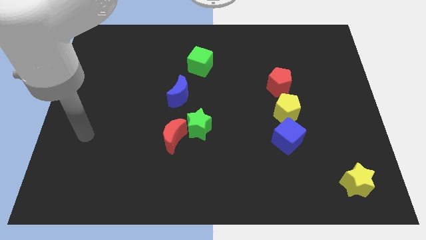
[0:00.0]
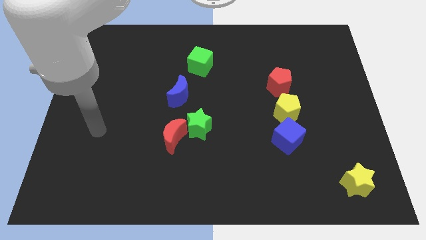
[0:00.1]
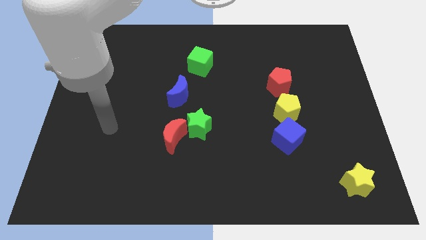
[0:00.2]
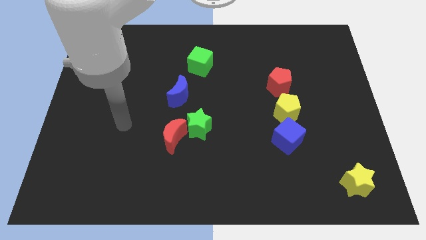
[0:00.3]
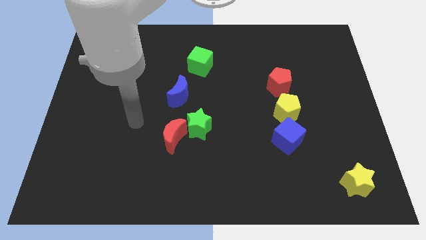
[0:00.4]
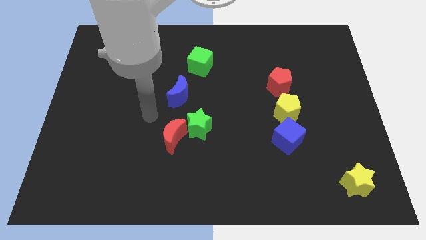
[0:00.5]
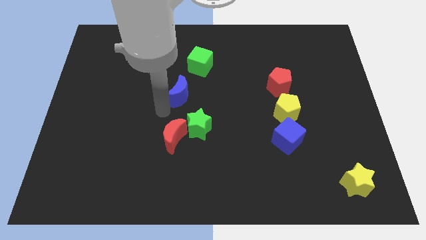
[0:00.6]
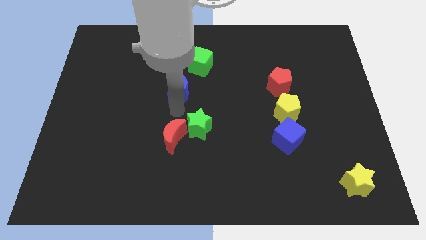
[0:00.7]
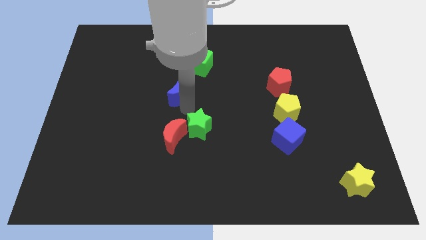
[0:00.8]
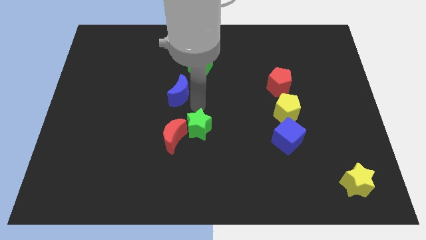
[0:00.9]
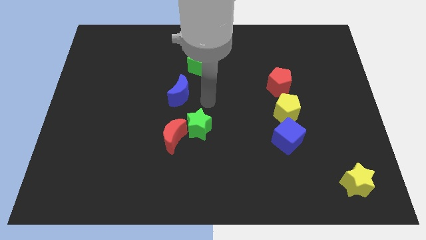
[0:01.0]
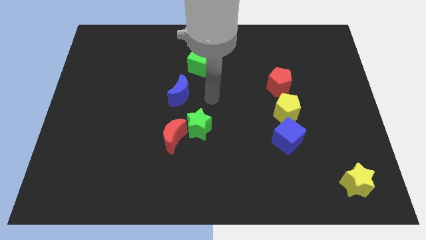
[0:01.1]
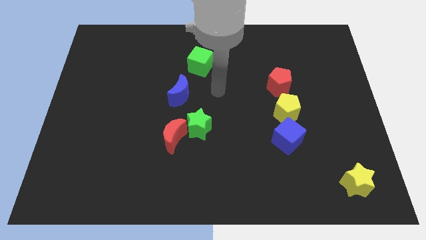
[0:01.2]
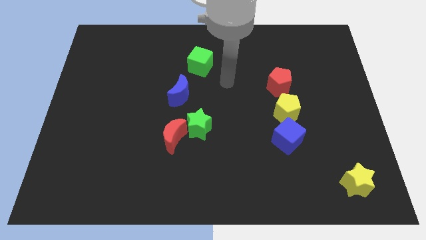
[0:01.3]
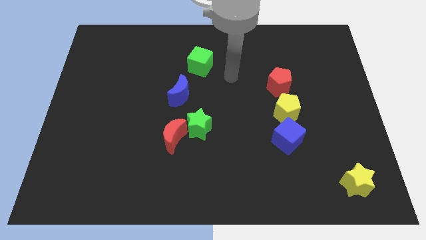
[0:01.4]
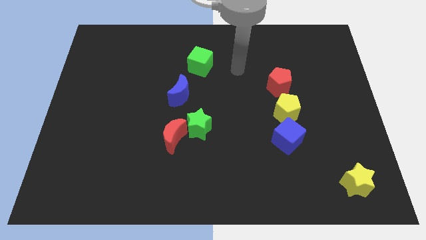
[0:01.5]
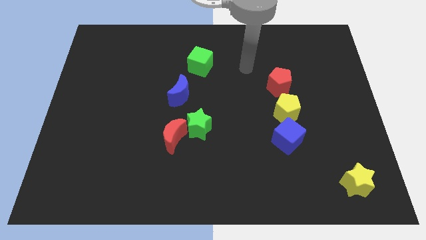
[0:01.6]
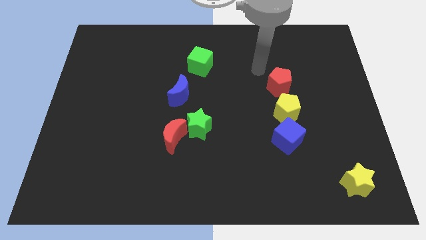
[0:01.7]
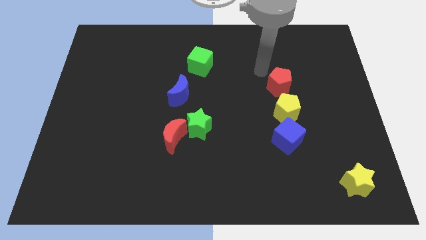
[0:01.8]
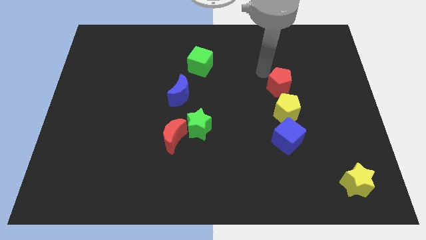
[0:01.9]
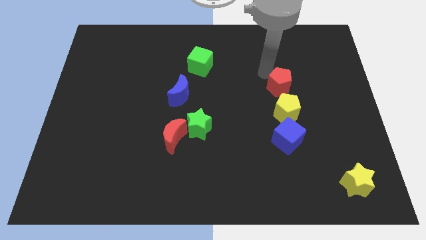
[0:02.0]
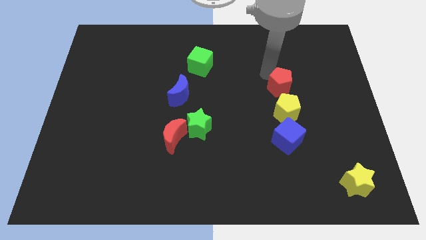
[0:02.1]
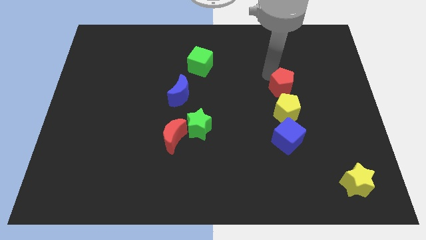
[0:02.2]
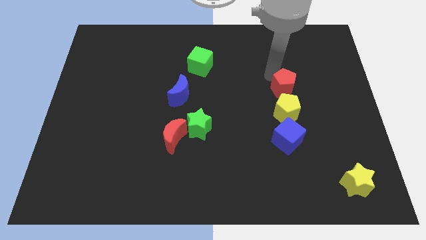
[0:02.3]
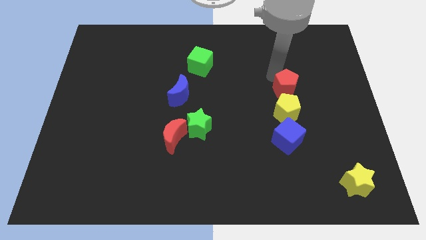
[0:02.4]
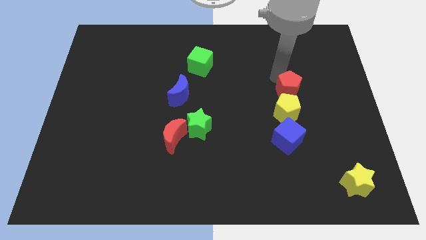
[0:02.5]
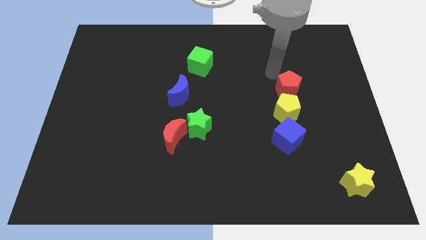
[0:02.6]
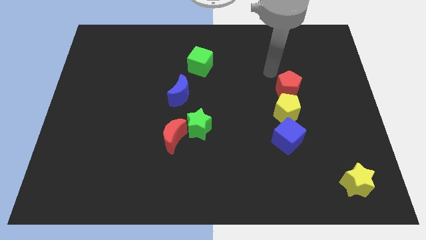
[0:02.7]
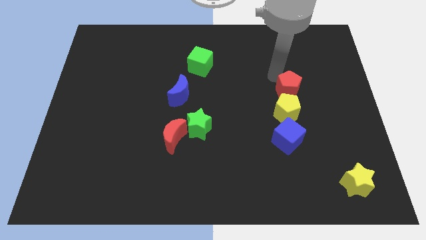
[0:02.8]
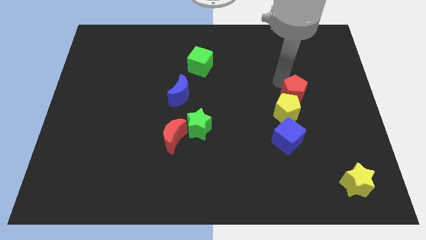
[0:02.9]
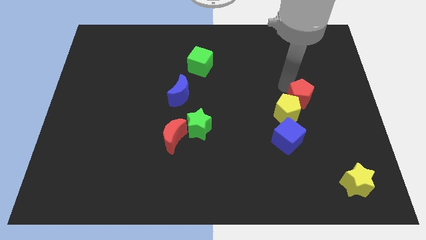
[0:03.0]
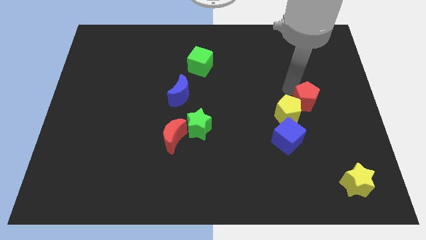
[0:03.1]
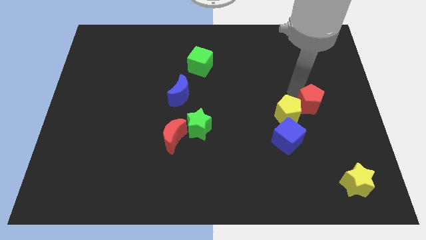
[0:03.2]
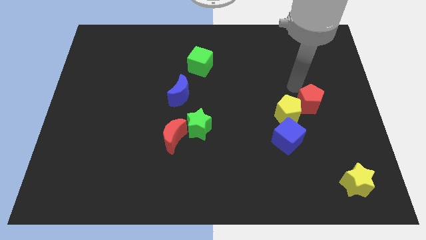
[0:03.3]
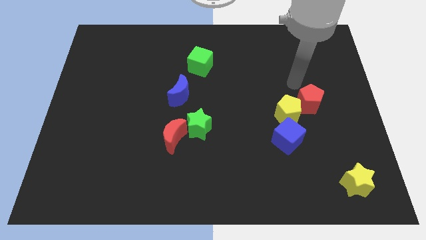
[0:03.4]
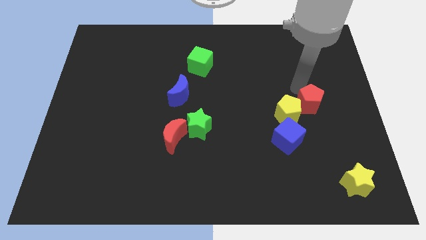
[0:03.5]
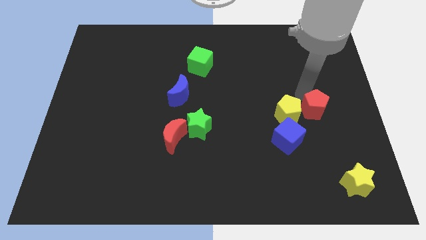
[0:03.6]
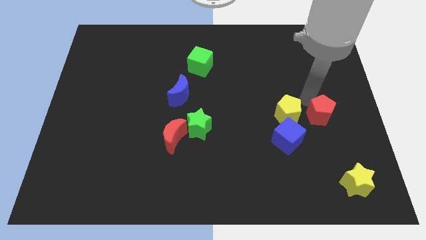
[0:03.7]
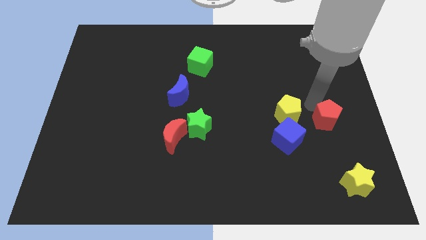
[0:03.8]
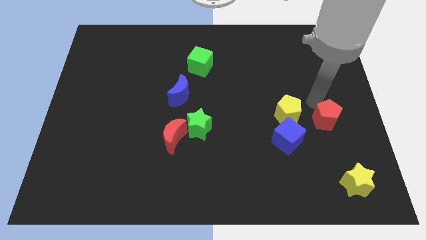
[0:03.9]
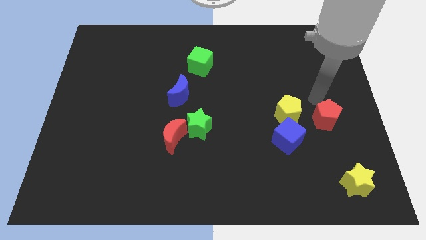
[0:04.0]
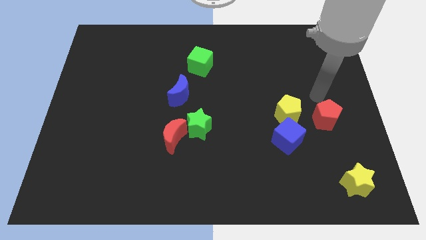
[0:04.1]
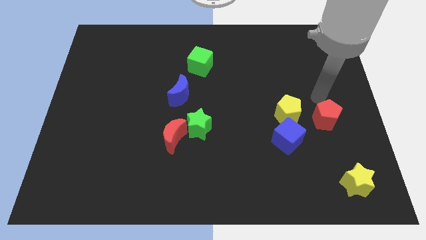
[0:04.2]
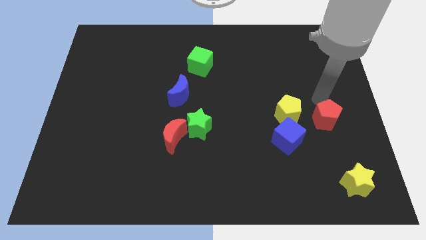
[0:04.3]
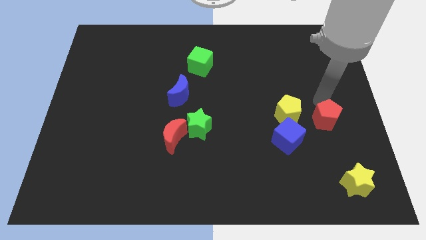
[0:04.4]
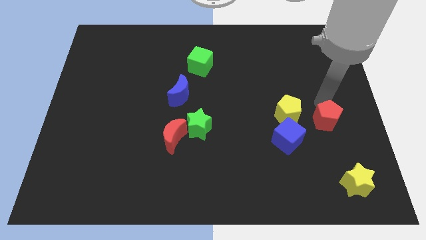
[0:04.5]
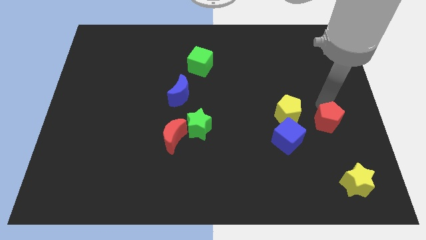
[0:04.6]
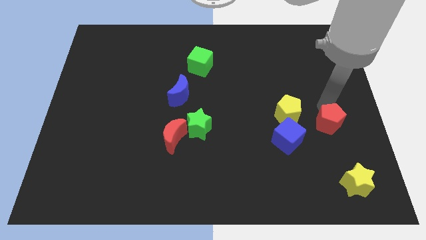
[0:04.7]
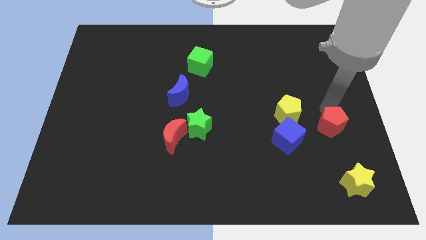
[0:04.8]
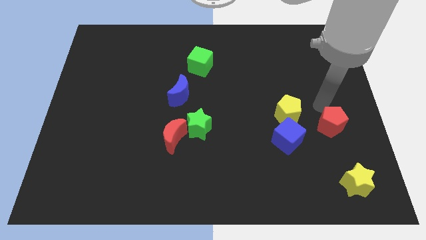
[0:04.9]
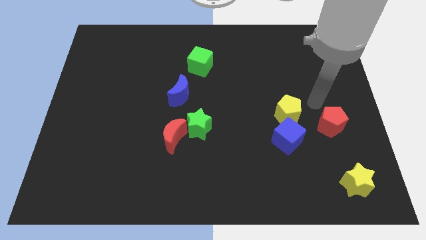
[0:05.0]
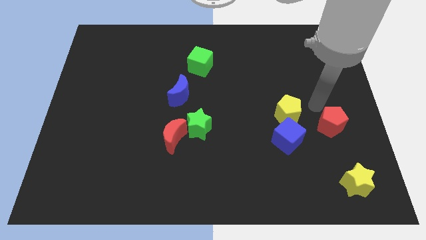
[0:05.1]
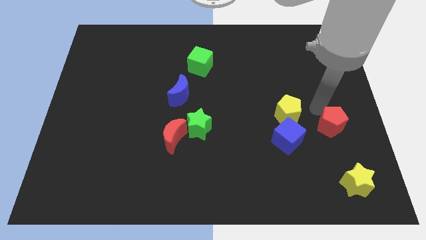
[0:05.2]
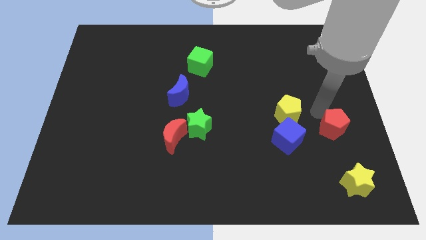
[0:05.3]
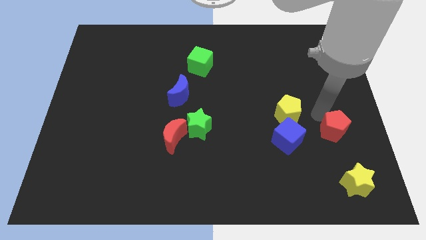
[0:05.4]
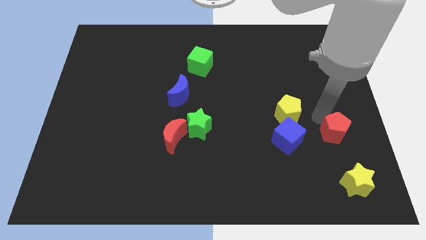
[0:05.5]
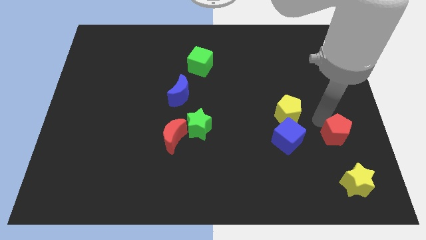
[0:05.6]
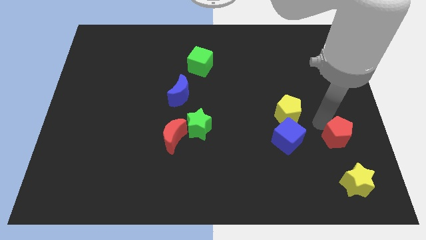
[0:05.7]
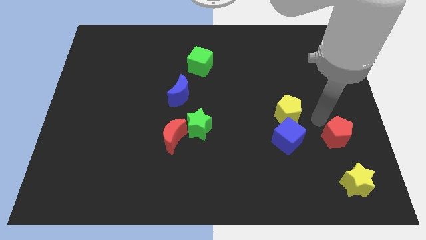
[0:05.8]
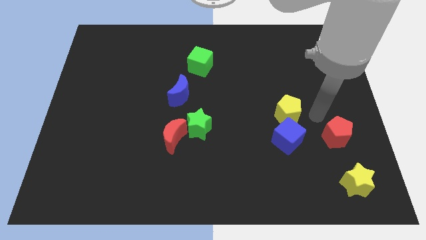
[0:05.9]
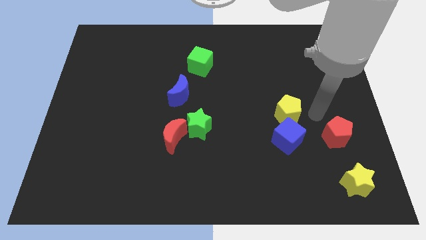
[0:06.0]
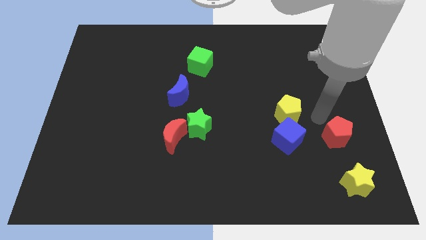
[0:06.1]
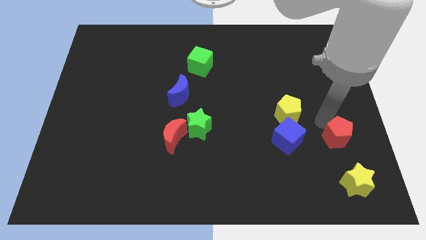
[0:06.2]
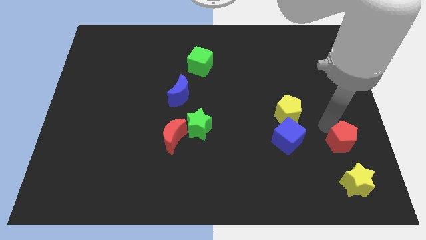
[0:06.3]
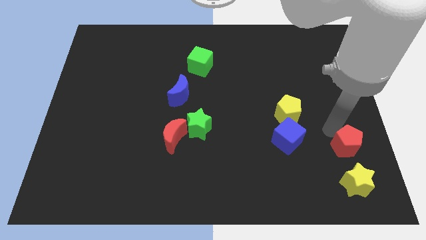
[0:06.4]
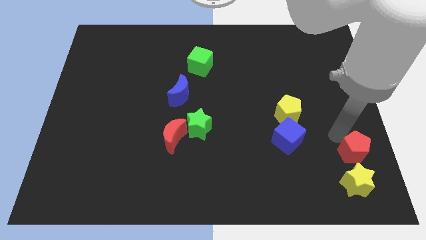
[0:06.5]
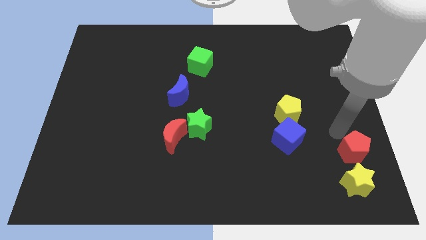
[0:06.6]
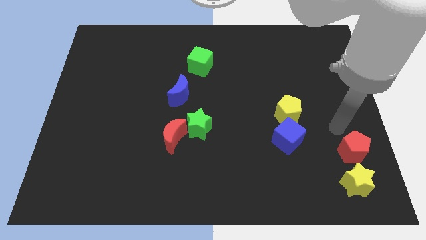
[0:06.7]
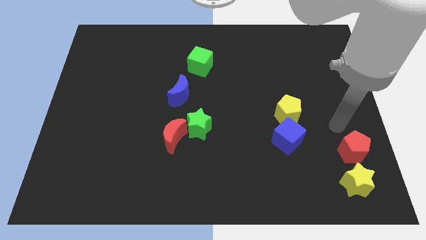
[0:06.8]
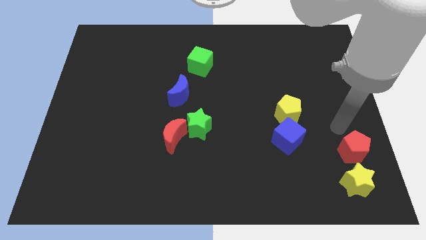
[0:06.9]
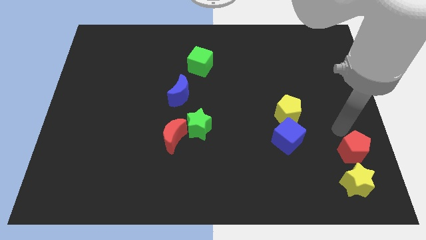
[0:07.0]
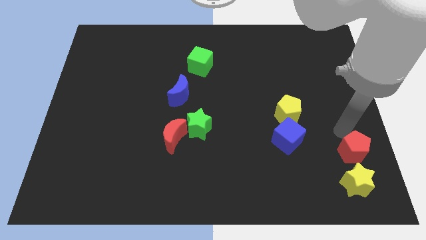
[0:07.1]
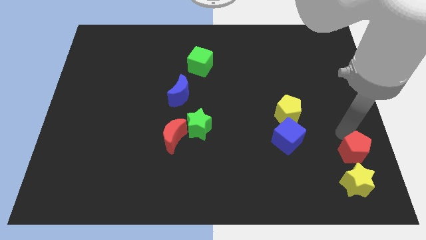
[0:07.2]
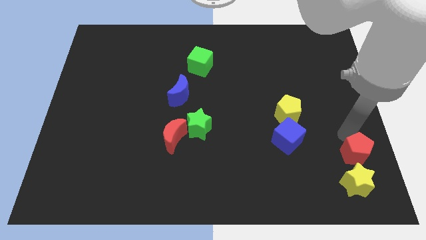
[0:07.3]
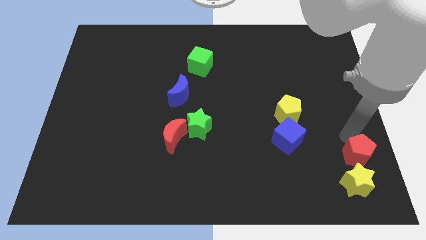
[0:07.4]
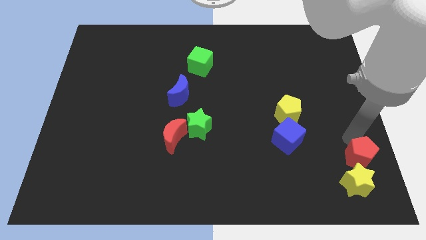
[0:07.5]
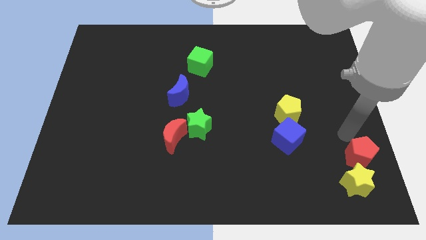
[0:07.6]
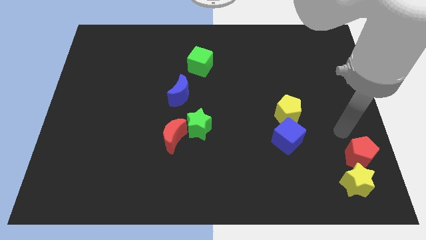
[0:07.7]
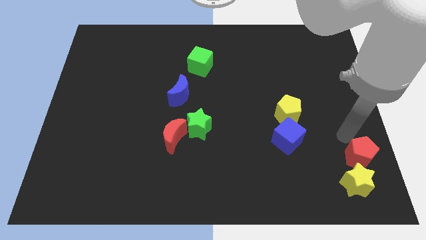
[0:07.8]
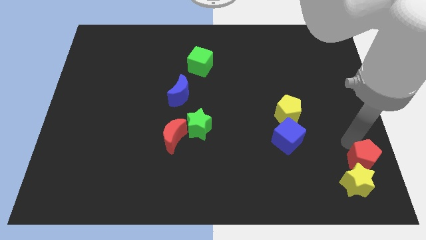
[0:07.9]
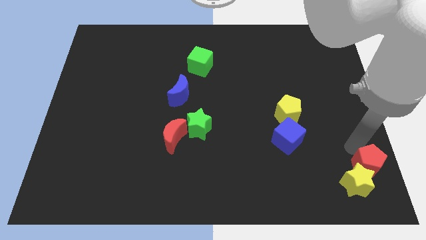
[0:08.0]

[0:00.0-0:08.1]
move the red pentagon to the bottom right of the board
